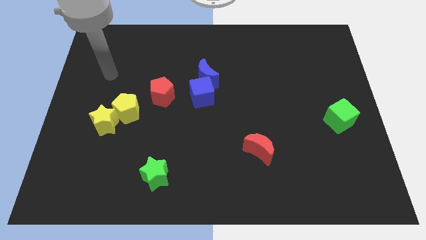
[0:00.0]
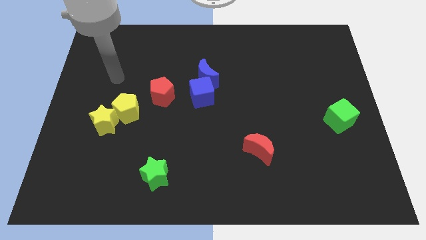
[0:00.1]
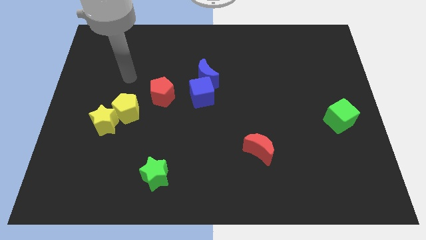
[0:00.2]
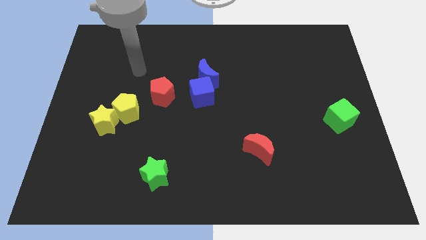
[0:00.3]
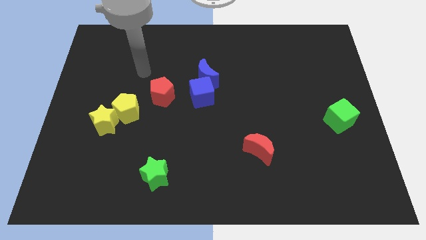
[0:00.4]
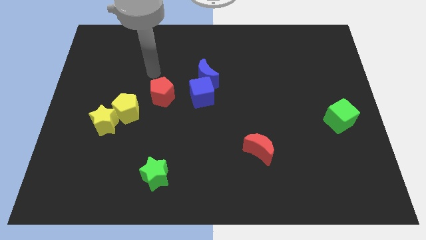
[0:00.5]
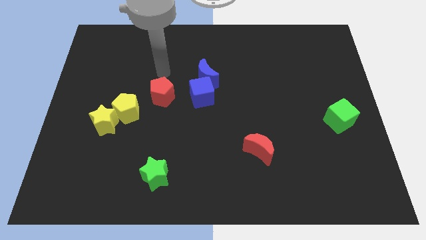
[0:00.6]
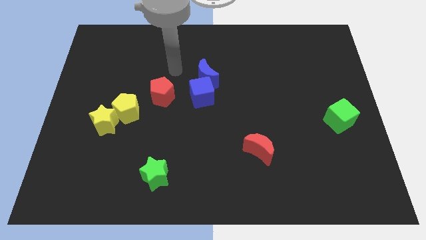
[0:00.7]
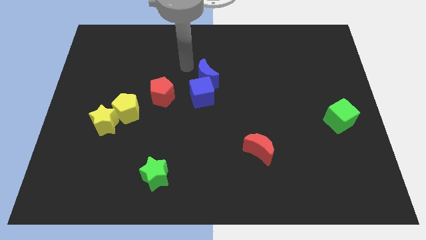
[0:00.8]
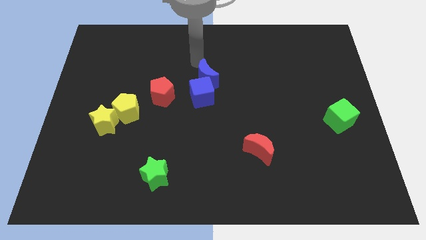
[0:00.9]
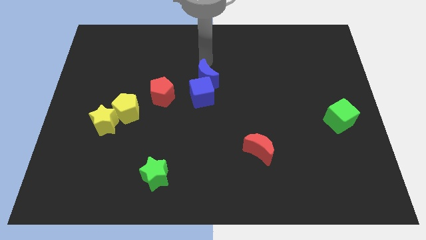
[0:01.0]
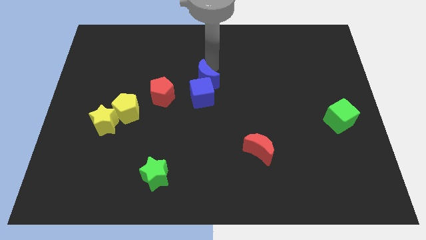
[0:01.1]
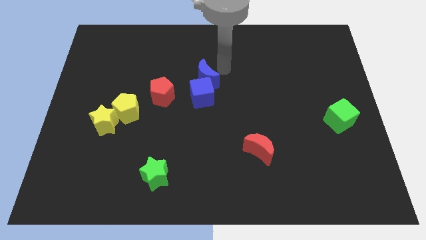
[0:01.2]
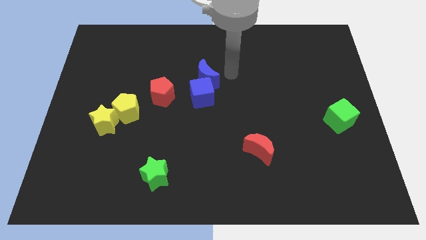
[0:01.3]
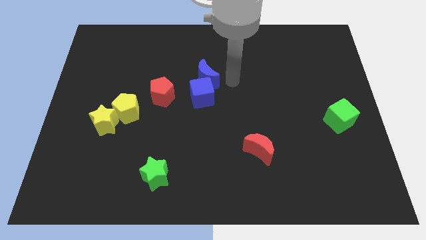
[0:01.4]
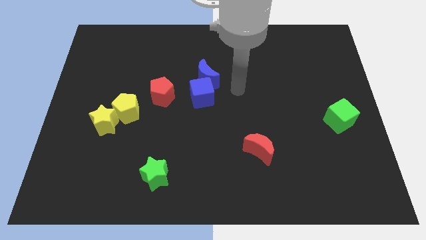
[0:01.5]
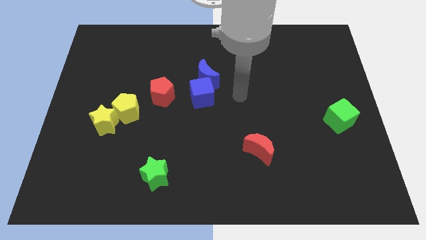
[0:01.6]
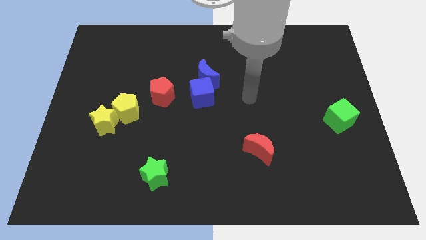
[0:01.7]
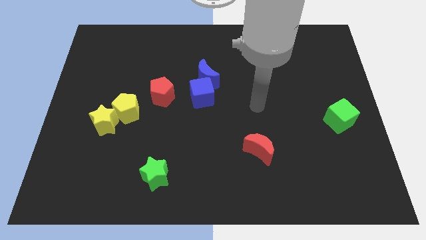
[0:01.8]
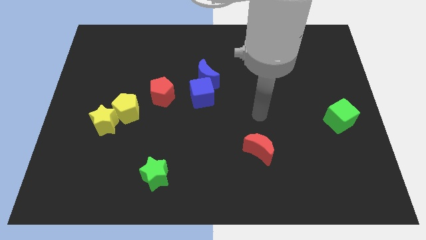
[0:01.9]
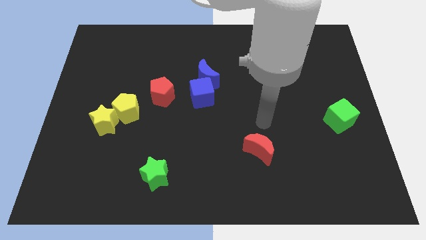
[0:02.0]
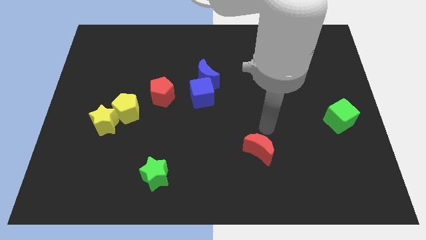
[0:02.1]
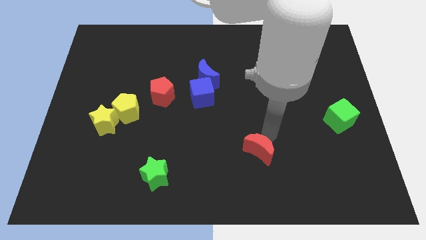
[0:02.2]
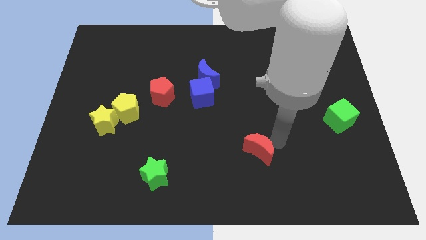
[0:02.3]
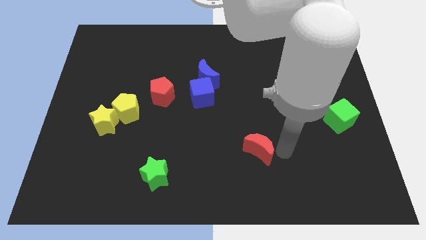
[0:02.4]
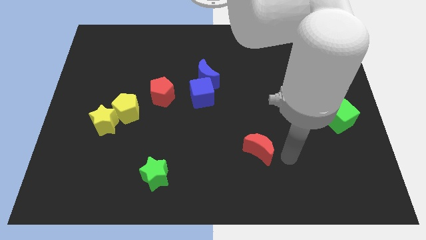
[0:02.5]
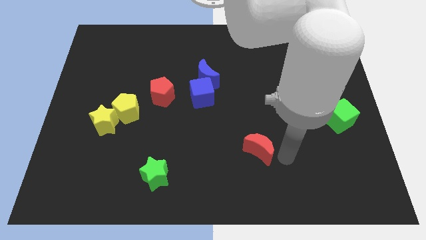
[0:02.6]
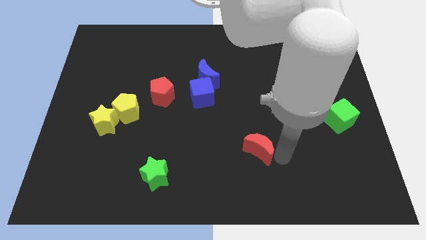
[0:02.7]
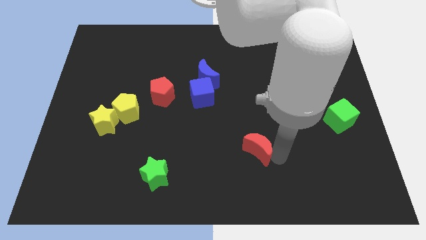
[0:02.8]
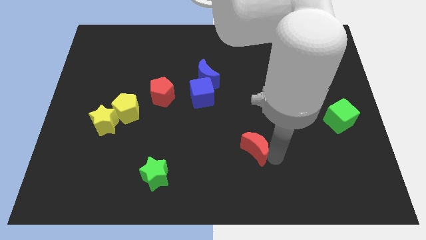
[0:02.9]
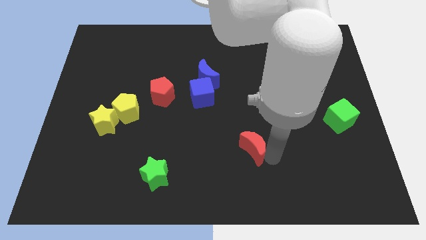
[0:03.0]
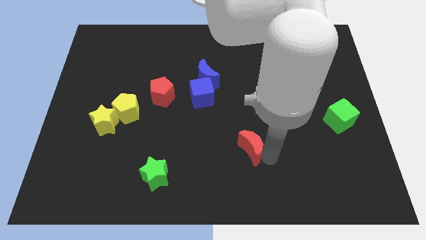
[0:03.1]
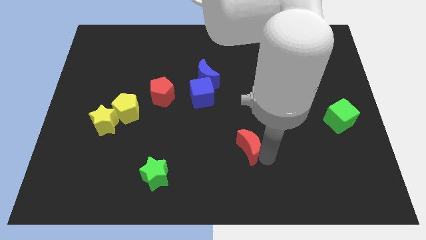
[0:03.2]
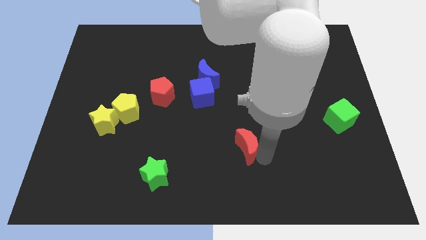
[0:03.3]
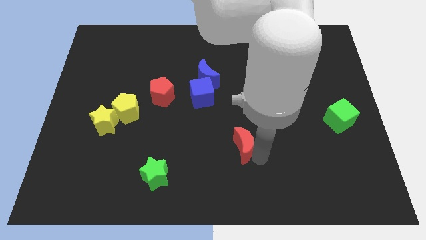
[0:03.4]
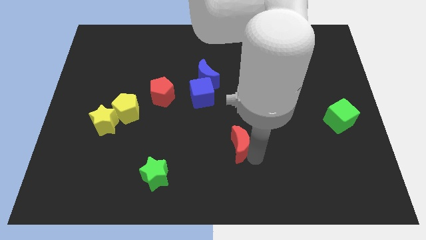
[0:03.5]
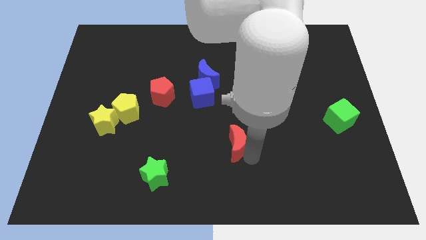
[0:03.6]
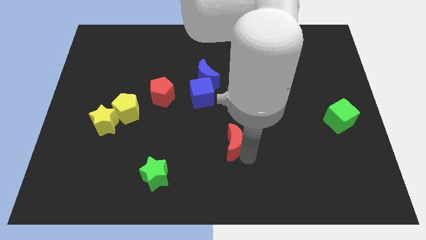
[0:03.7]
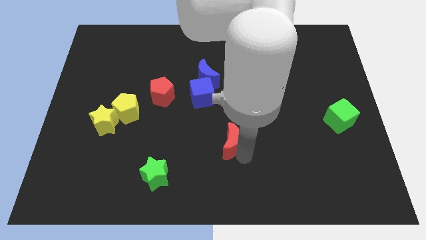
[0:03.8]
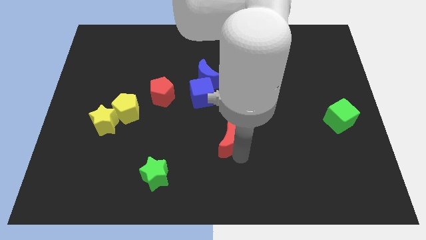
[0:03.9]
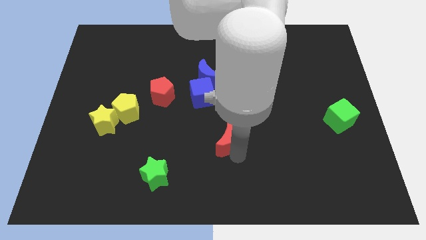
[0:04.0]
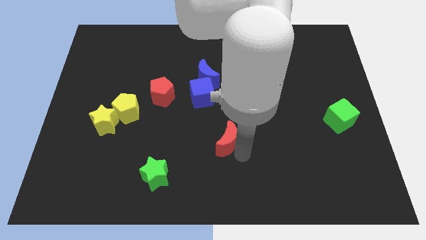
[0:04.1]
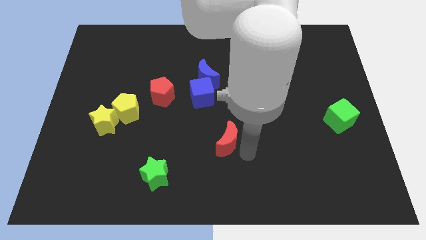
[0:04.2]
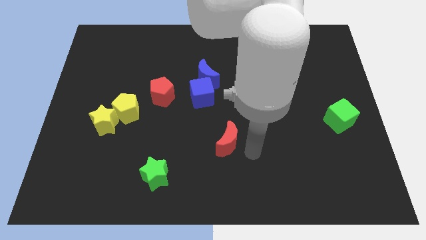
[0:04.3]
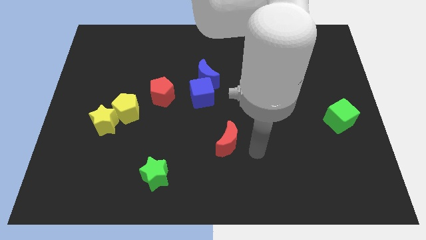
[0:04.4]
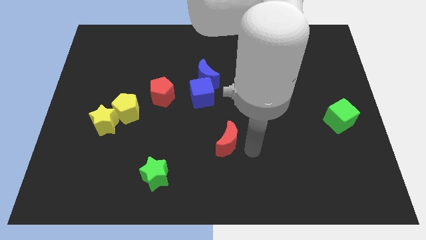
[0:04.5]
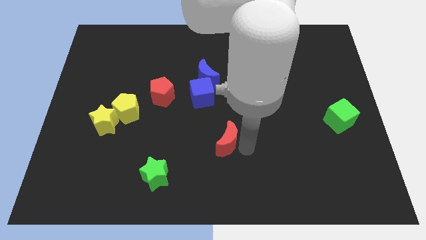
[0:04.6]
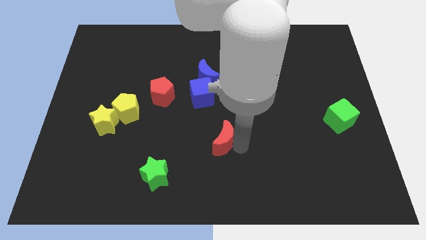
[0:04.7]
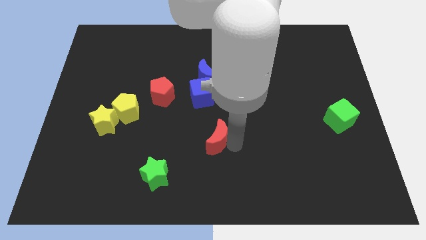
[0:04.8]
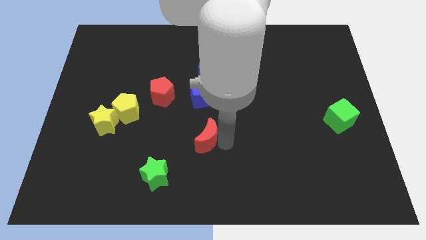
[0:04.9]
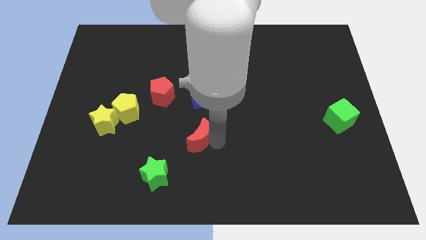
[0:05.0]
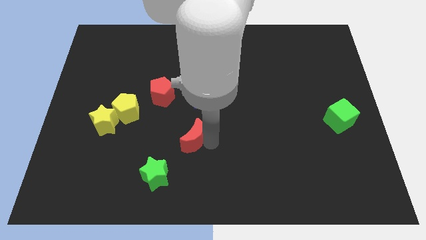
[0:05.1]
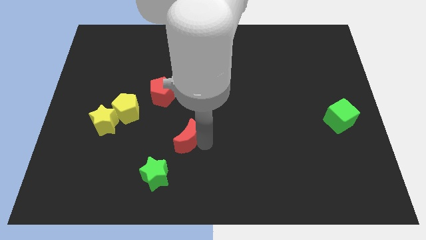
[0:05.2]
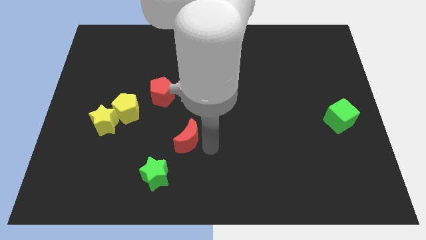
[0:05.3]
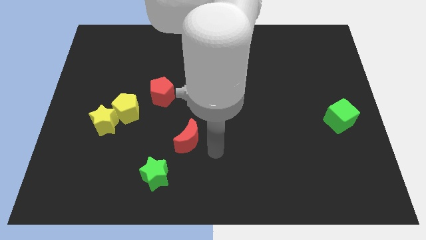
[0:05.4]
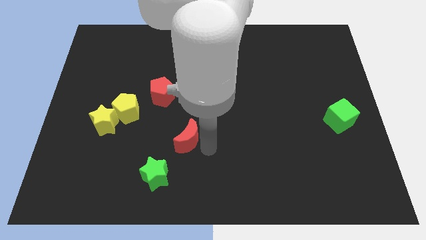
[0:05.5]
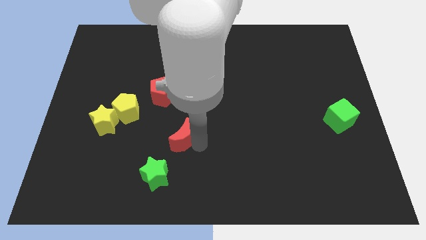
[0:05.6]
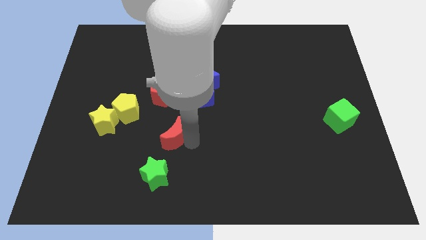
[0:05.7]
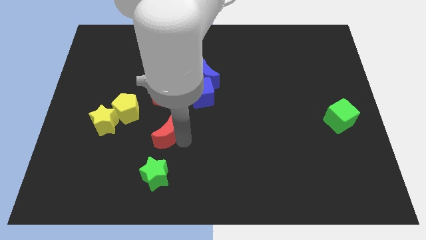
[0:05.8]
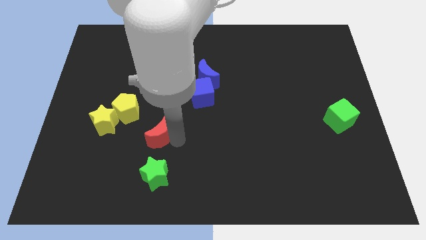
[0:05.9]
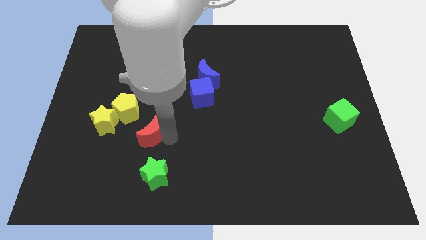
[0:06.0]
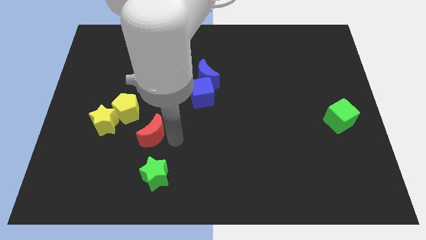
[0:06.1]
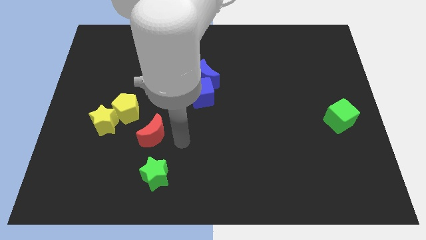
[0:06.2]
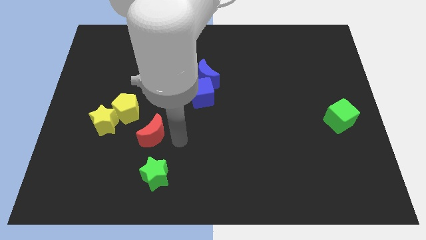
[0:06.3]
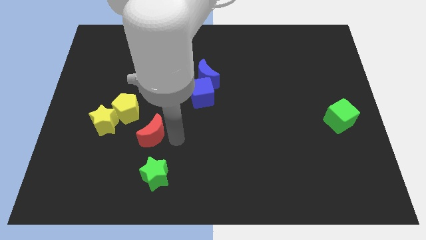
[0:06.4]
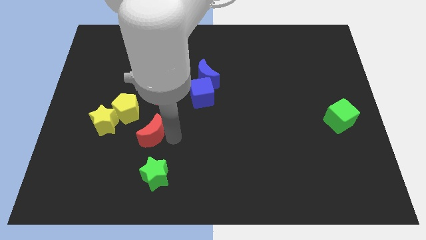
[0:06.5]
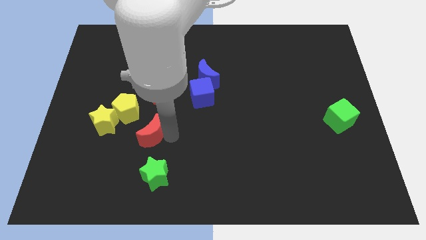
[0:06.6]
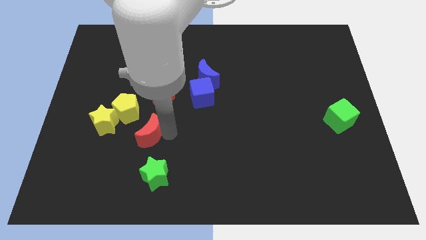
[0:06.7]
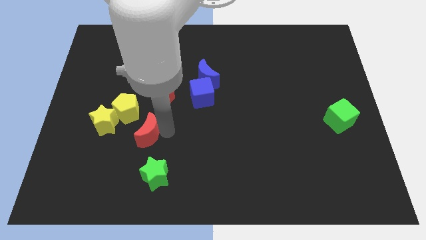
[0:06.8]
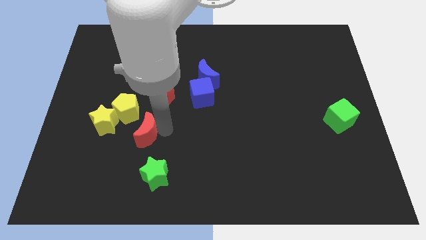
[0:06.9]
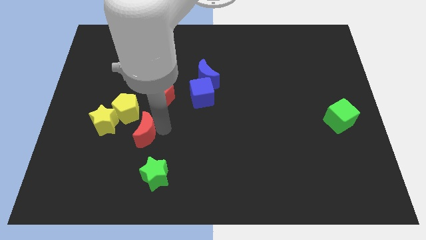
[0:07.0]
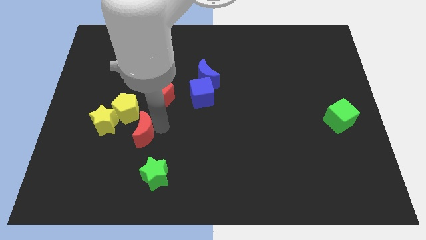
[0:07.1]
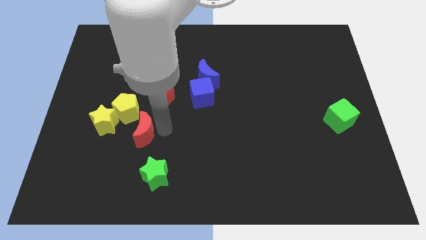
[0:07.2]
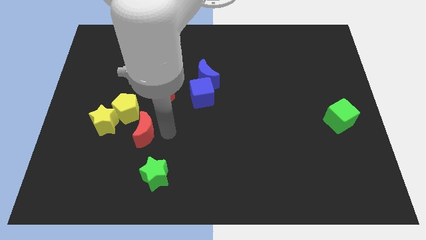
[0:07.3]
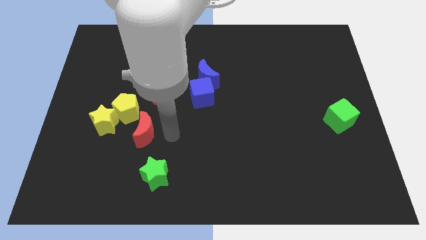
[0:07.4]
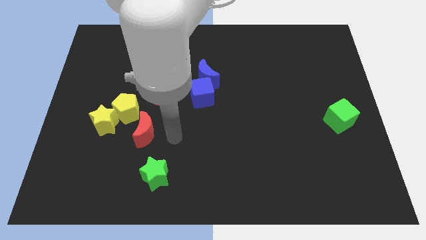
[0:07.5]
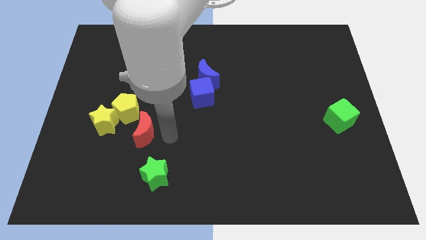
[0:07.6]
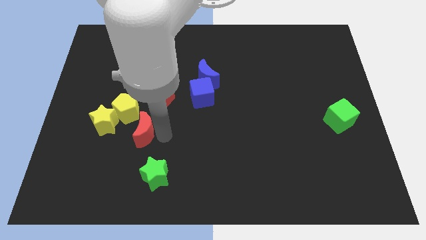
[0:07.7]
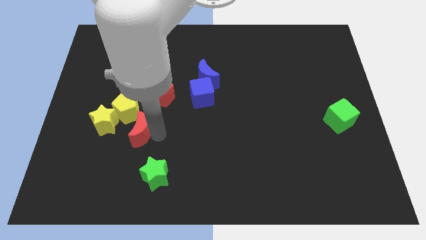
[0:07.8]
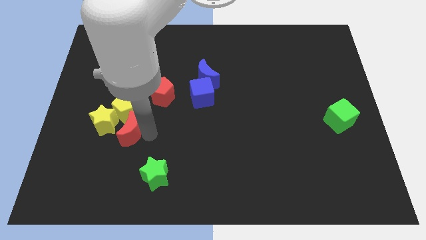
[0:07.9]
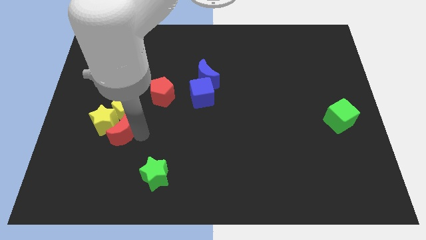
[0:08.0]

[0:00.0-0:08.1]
move the red moon towards the yellow star
